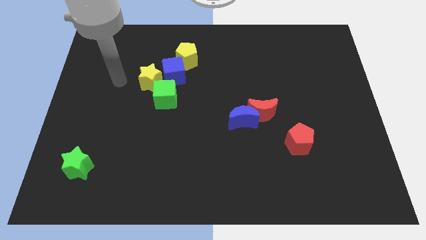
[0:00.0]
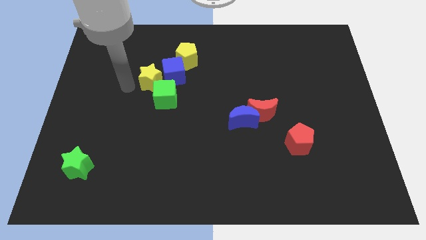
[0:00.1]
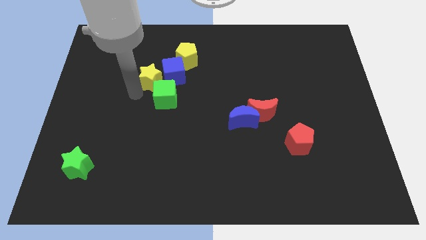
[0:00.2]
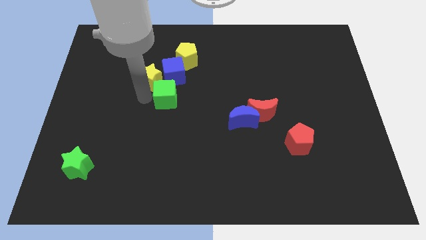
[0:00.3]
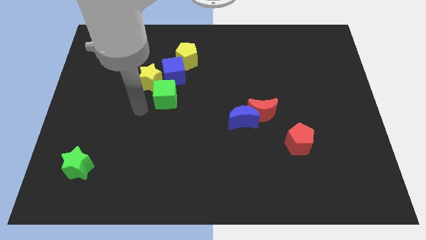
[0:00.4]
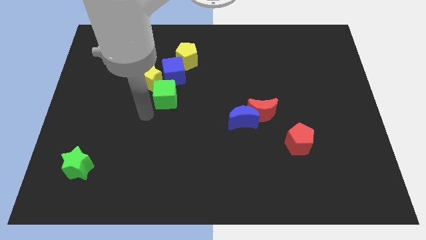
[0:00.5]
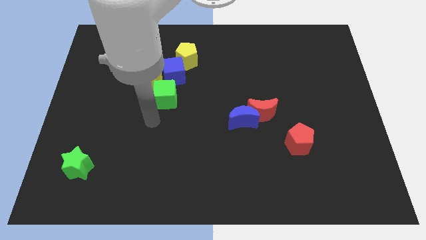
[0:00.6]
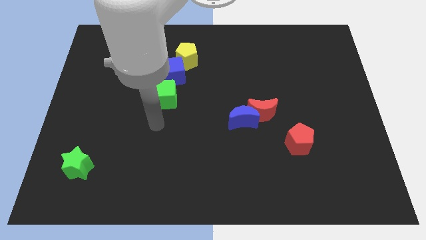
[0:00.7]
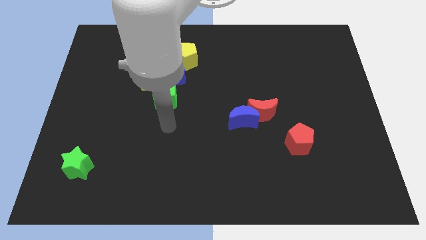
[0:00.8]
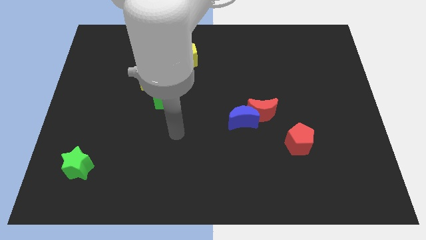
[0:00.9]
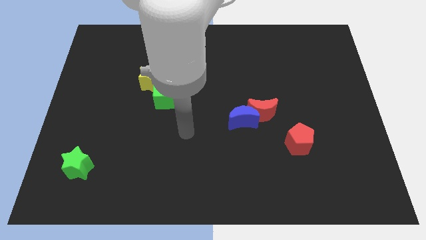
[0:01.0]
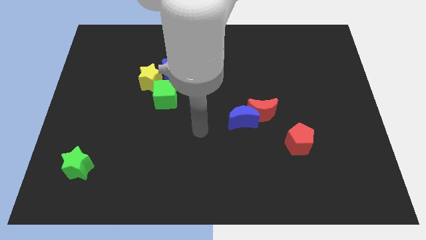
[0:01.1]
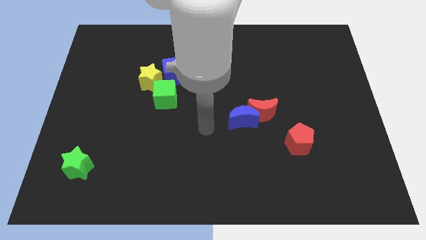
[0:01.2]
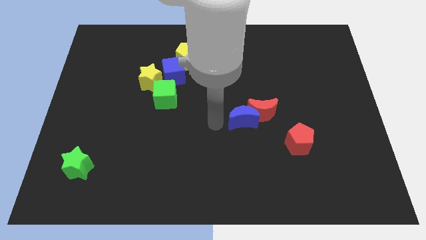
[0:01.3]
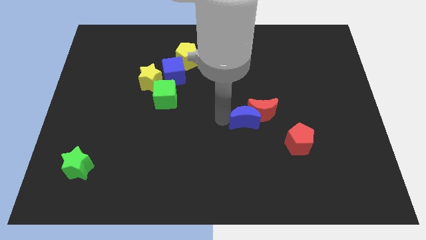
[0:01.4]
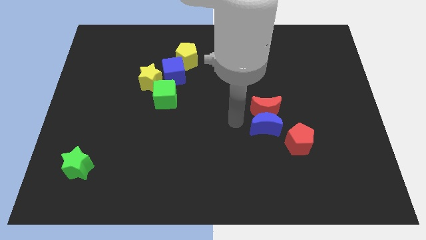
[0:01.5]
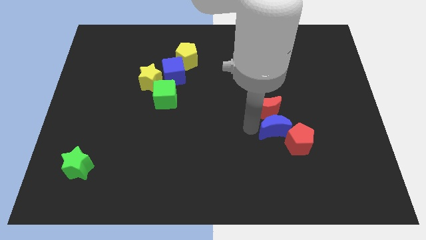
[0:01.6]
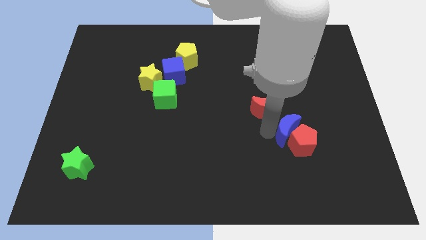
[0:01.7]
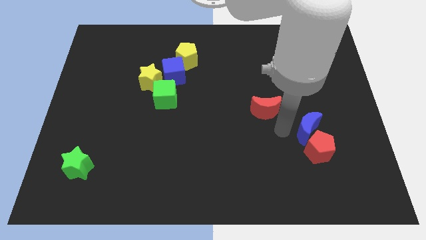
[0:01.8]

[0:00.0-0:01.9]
move the red moon away from the blue moon

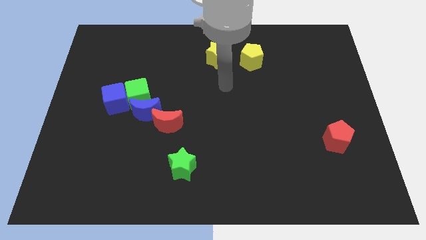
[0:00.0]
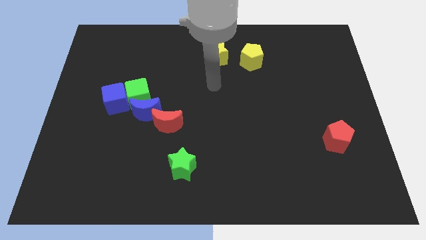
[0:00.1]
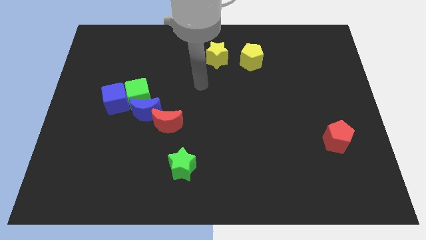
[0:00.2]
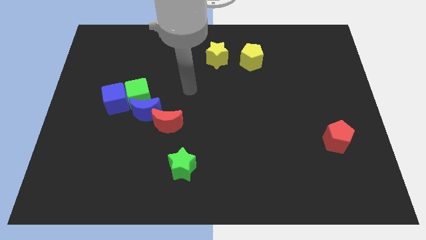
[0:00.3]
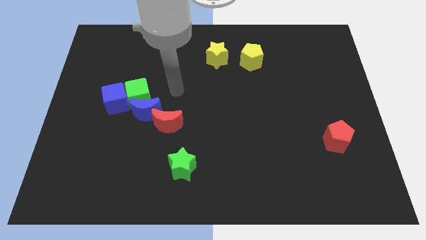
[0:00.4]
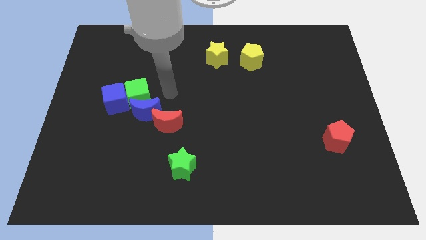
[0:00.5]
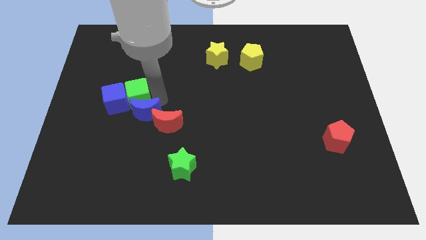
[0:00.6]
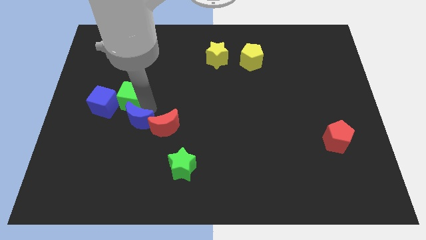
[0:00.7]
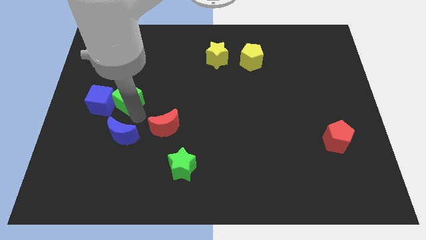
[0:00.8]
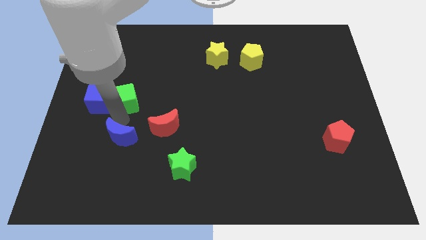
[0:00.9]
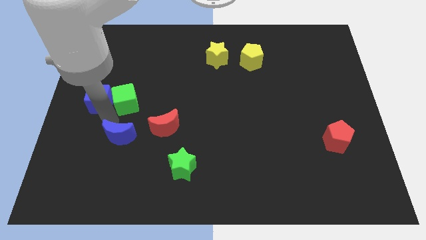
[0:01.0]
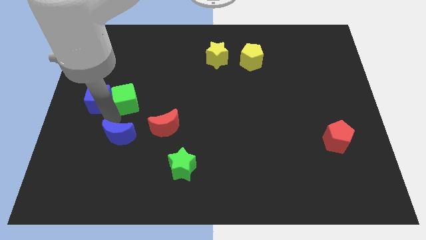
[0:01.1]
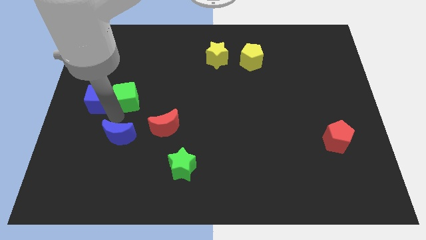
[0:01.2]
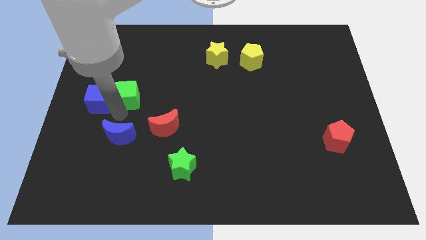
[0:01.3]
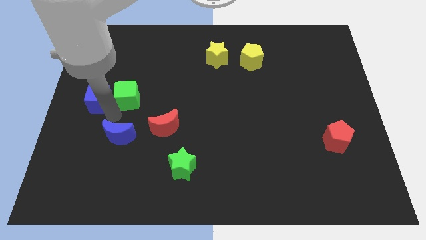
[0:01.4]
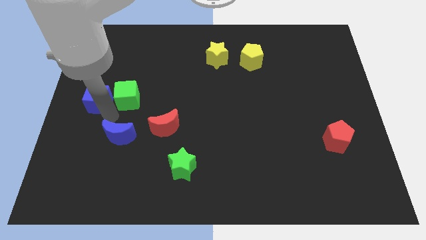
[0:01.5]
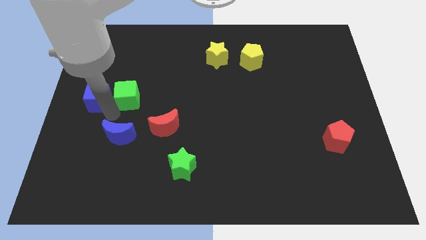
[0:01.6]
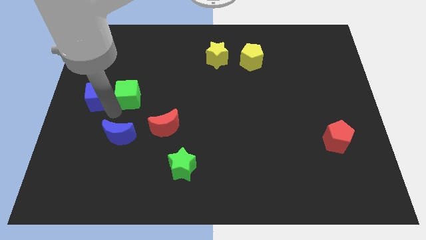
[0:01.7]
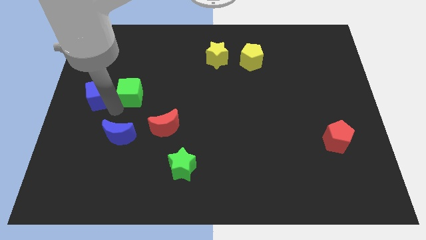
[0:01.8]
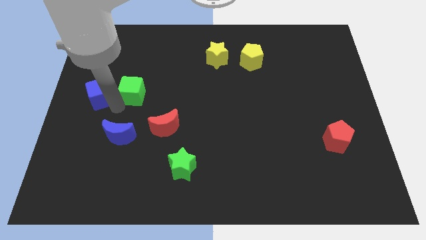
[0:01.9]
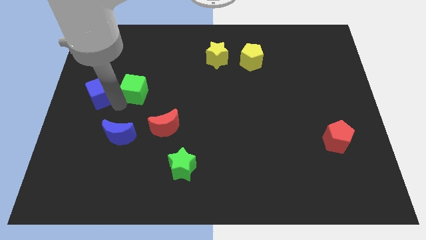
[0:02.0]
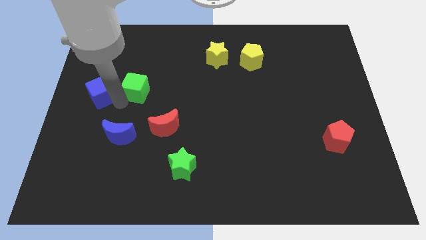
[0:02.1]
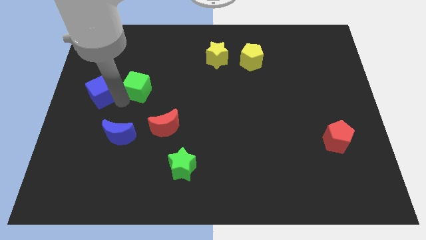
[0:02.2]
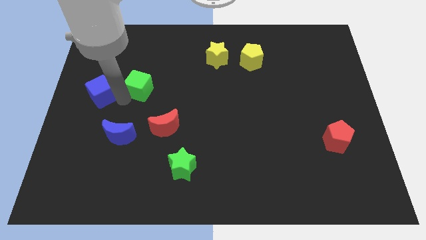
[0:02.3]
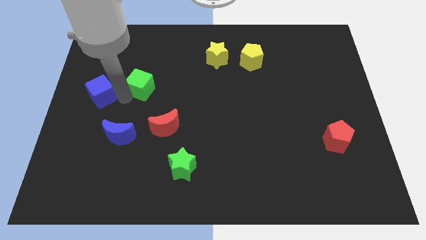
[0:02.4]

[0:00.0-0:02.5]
separate the green cube from the blue moon and blue cube

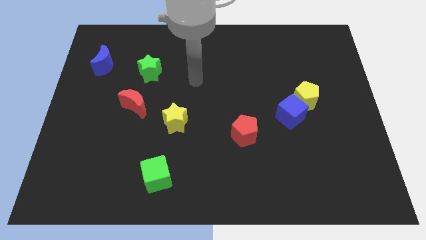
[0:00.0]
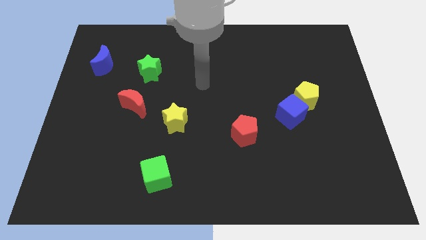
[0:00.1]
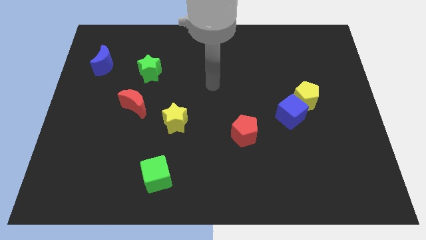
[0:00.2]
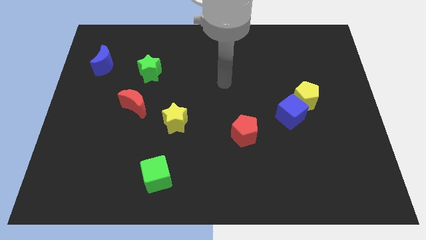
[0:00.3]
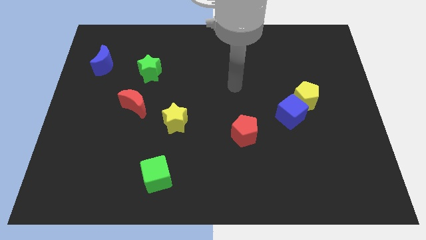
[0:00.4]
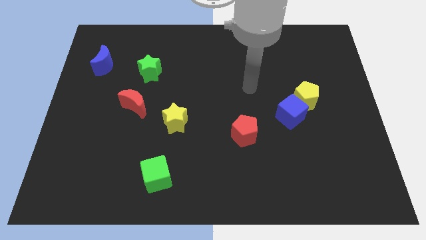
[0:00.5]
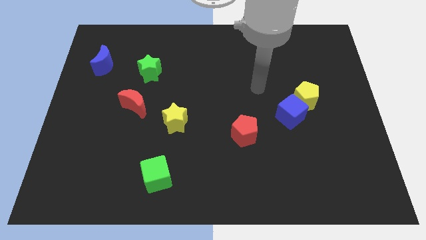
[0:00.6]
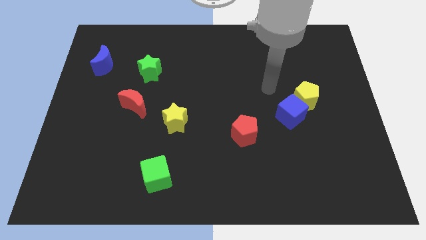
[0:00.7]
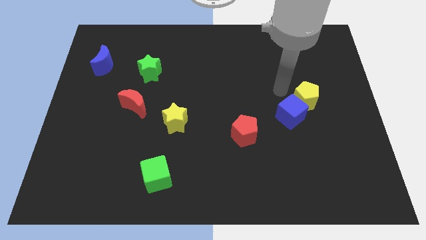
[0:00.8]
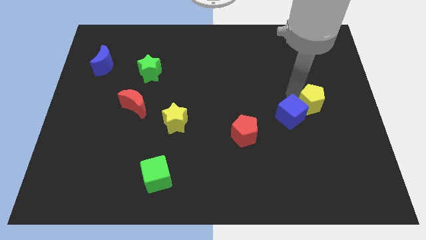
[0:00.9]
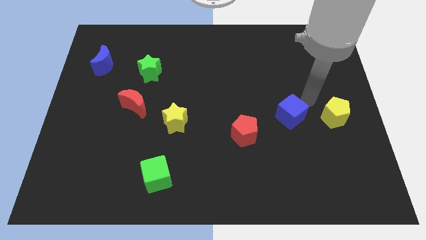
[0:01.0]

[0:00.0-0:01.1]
separate the blue cube from the yellow pentagon

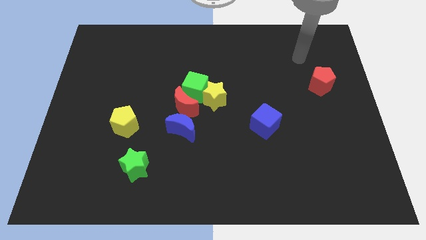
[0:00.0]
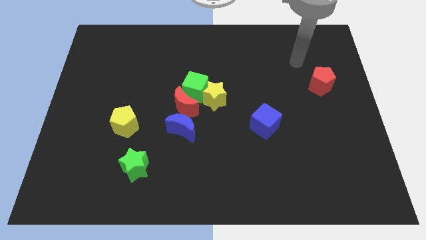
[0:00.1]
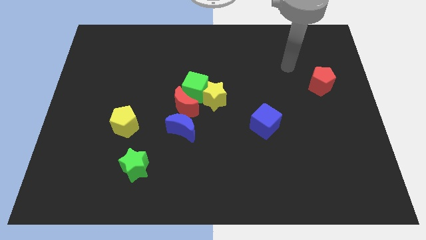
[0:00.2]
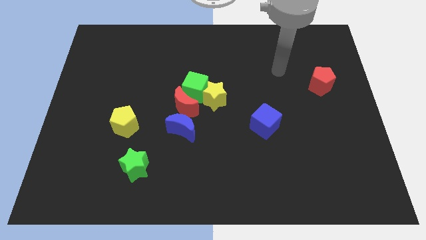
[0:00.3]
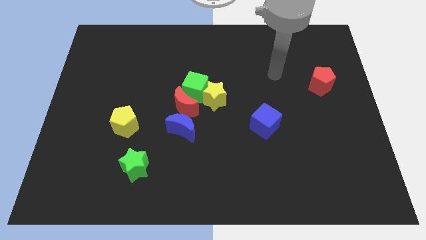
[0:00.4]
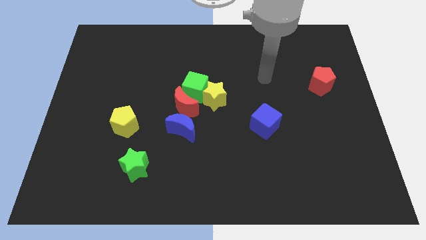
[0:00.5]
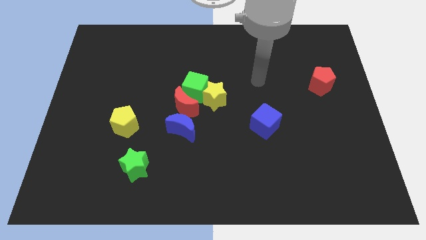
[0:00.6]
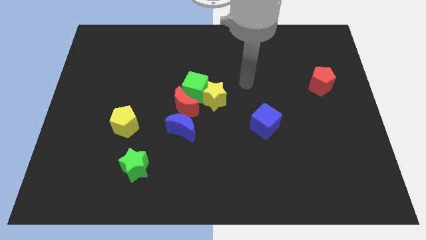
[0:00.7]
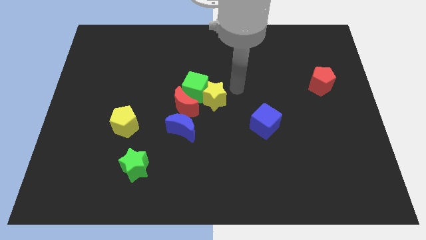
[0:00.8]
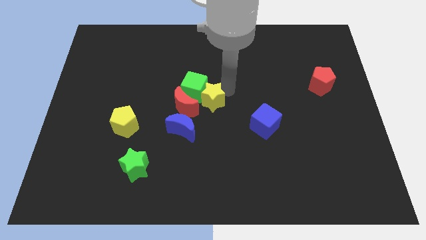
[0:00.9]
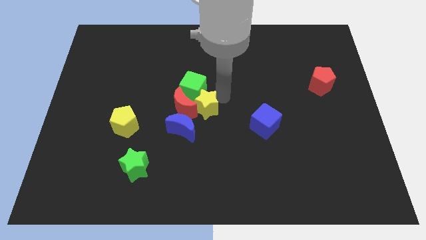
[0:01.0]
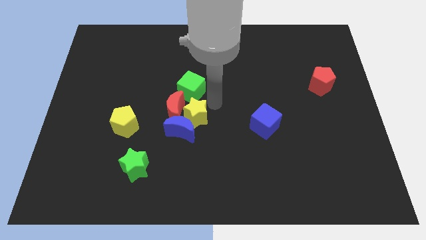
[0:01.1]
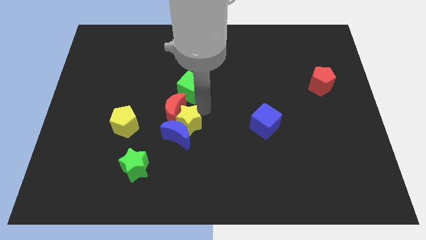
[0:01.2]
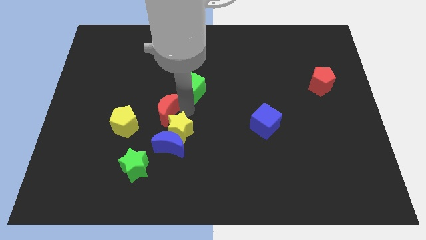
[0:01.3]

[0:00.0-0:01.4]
move the green cube away from the yellow star and red moon

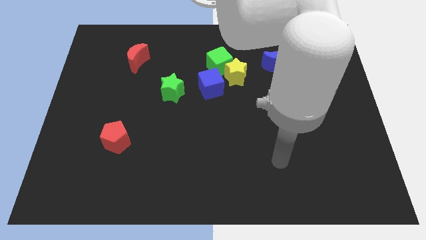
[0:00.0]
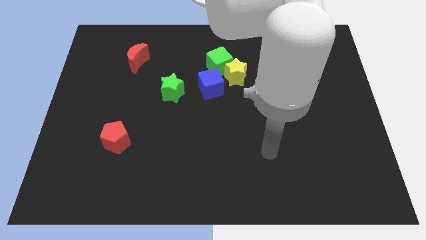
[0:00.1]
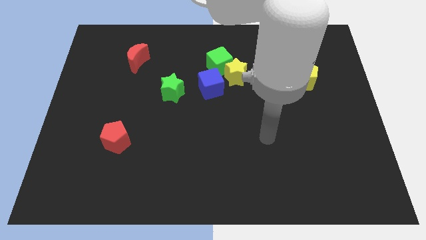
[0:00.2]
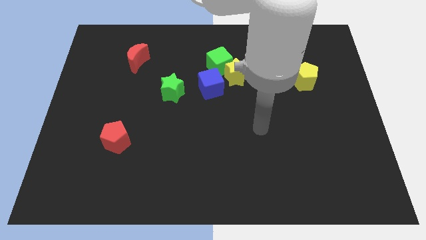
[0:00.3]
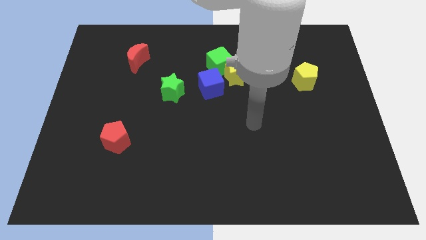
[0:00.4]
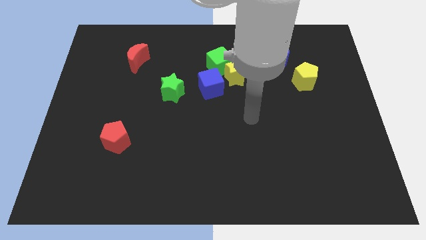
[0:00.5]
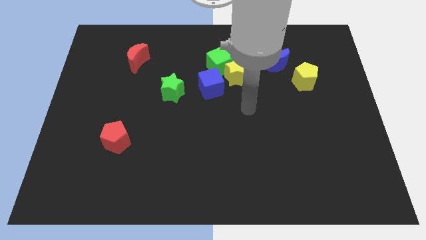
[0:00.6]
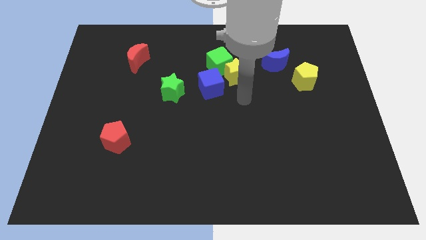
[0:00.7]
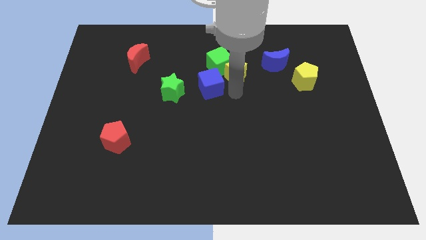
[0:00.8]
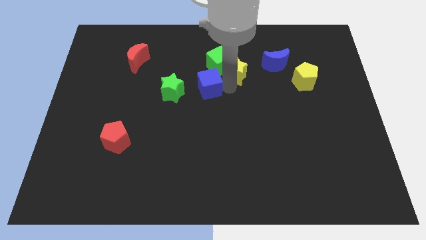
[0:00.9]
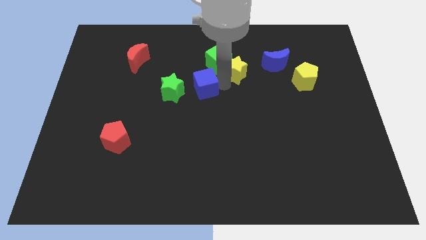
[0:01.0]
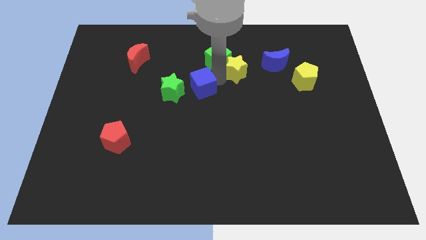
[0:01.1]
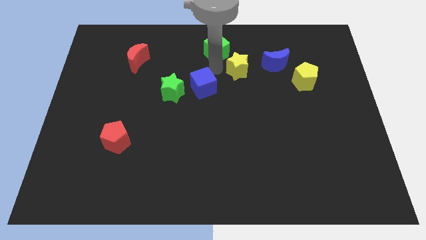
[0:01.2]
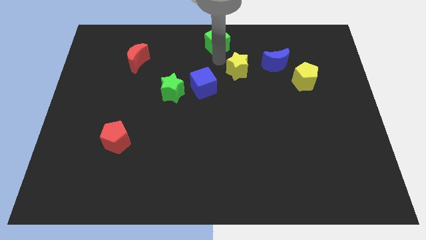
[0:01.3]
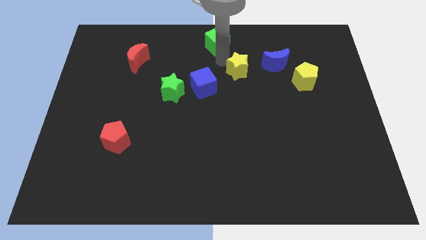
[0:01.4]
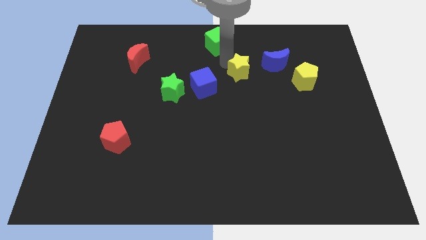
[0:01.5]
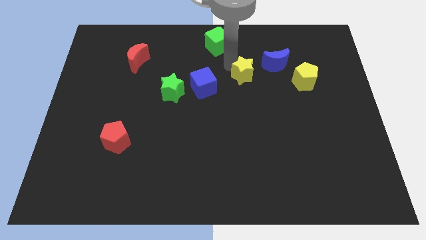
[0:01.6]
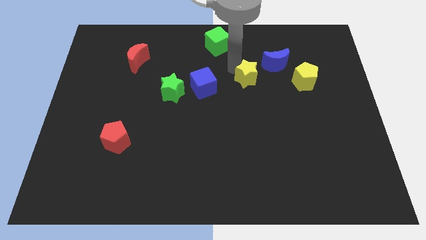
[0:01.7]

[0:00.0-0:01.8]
pull the yellow star apart from the green cube and blue cube
